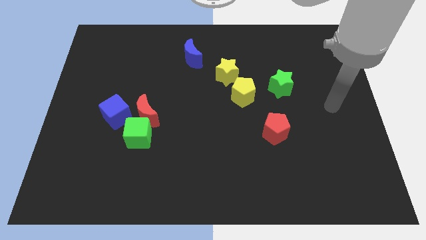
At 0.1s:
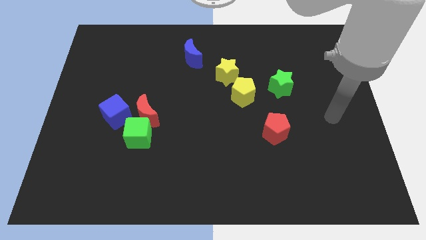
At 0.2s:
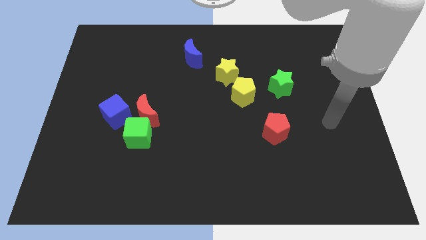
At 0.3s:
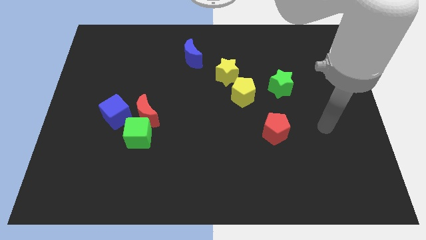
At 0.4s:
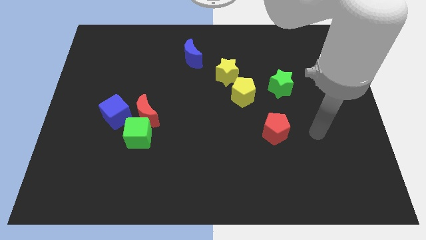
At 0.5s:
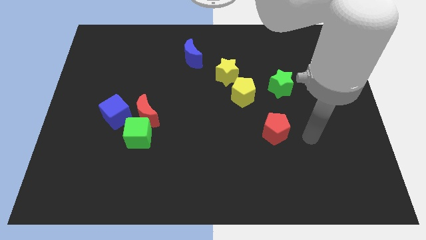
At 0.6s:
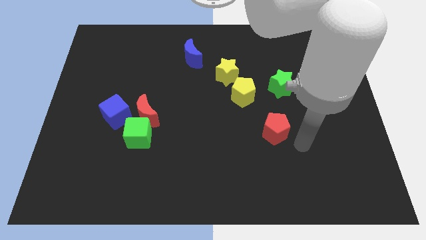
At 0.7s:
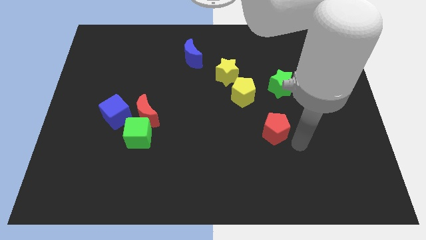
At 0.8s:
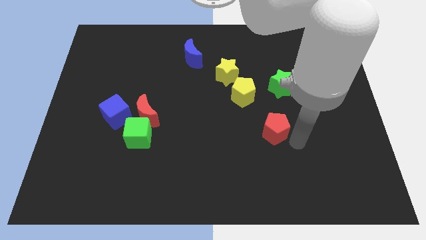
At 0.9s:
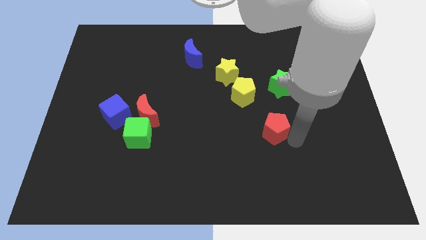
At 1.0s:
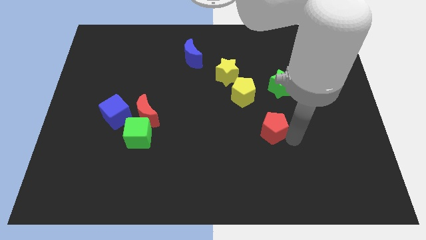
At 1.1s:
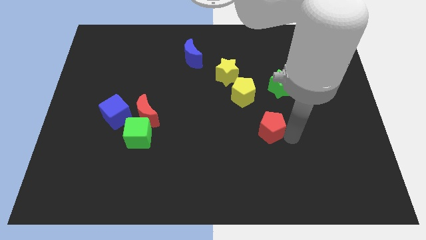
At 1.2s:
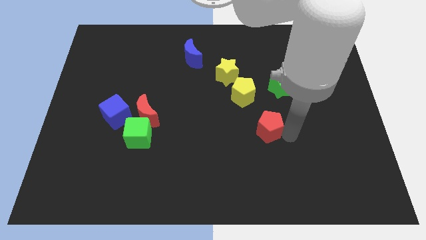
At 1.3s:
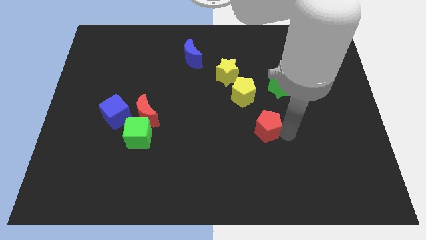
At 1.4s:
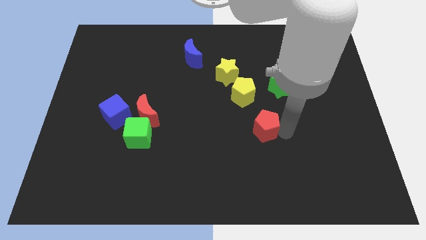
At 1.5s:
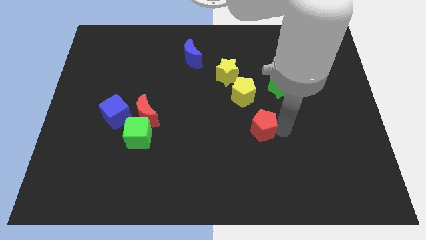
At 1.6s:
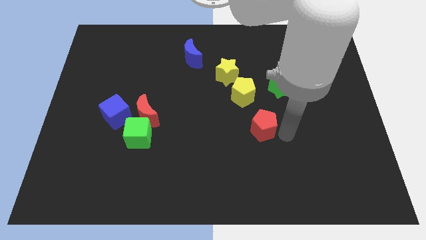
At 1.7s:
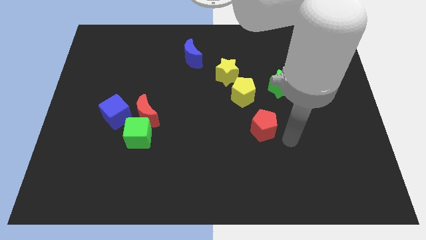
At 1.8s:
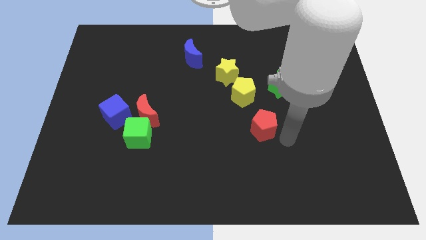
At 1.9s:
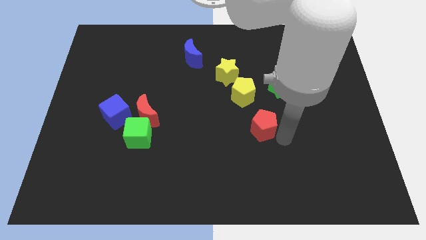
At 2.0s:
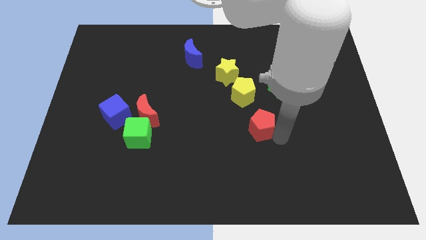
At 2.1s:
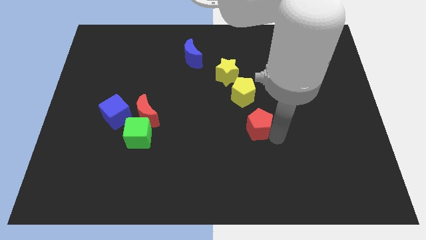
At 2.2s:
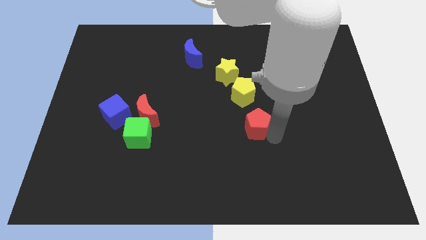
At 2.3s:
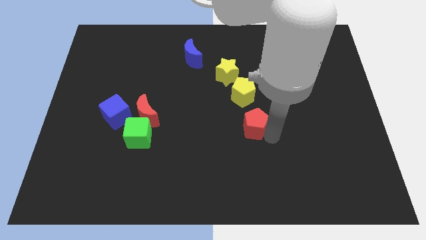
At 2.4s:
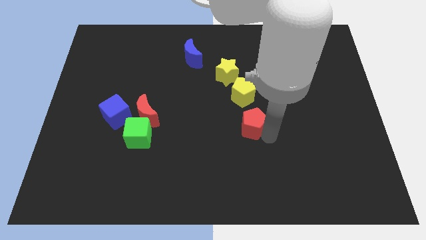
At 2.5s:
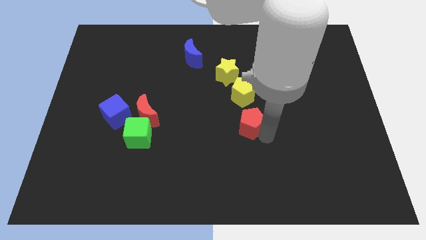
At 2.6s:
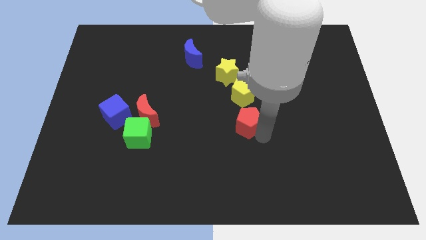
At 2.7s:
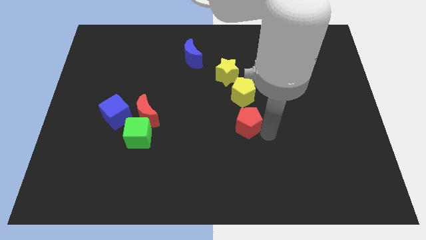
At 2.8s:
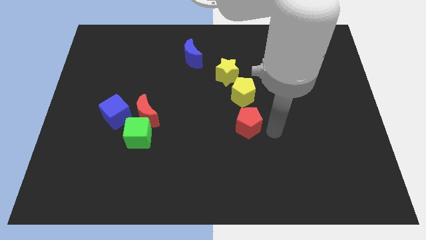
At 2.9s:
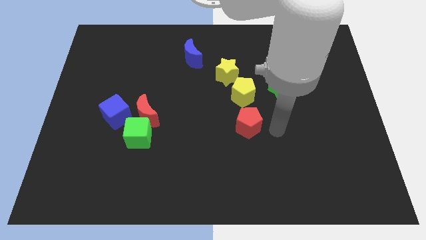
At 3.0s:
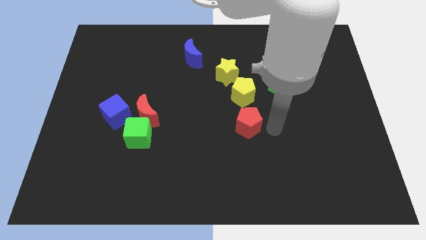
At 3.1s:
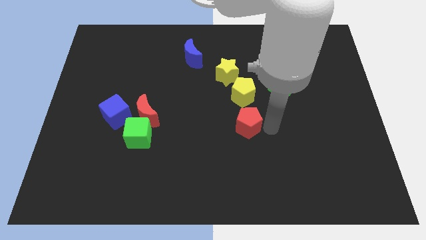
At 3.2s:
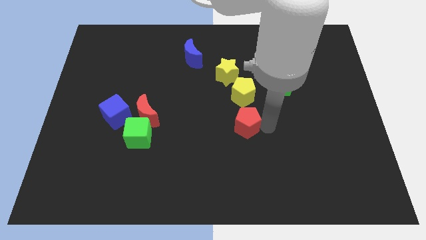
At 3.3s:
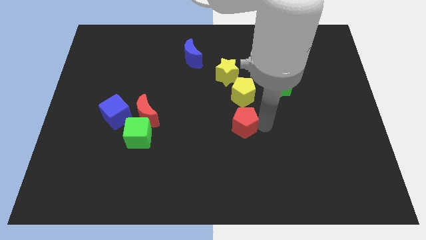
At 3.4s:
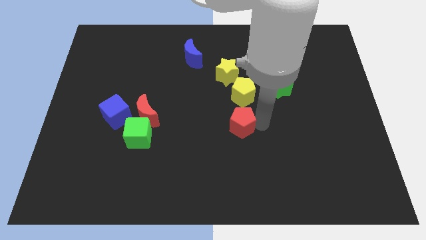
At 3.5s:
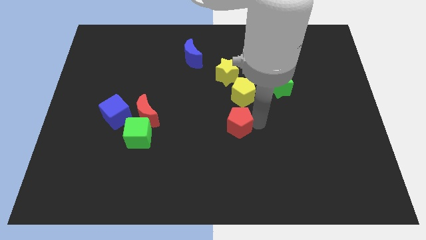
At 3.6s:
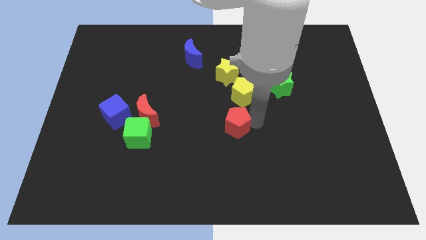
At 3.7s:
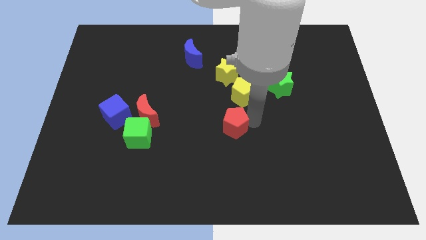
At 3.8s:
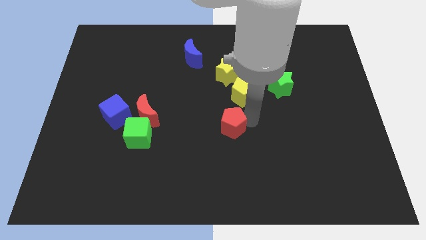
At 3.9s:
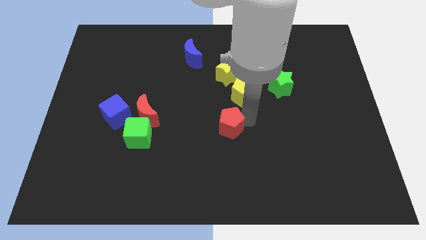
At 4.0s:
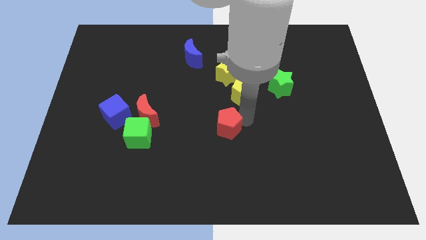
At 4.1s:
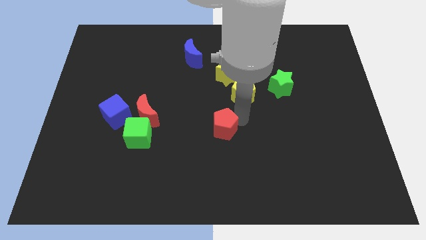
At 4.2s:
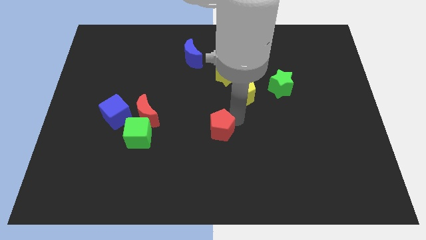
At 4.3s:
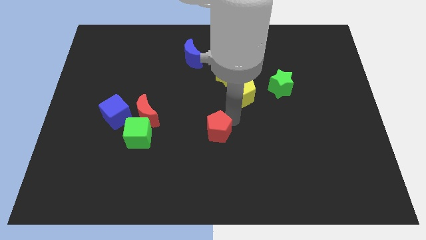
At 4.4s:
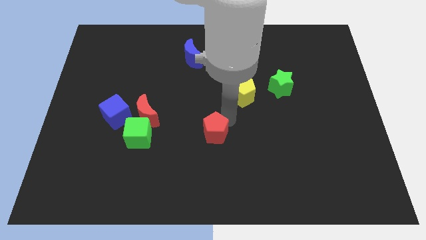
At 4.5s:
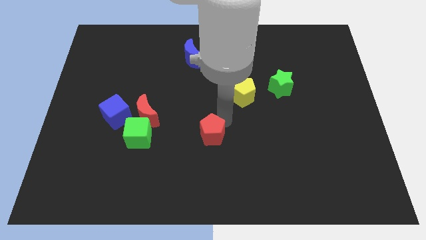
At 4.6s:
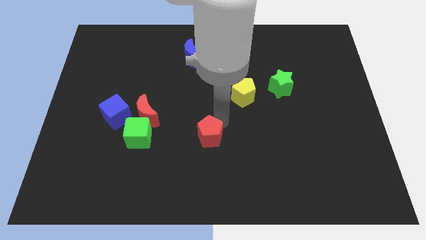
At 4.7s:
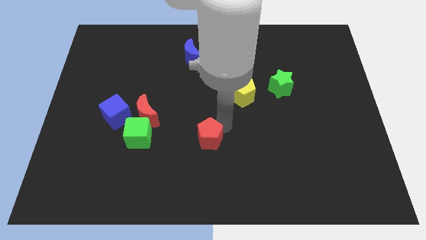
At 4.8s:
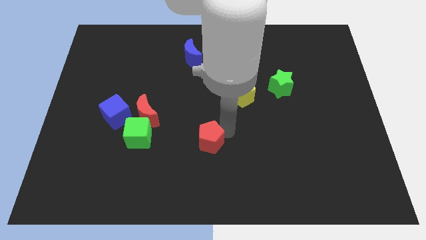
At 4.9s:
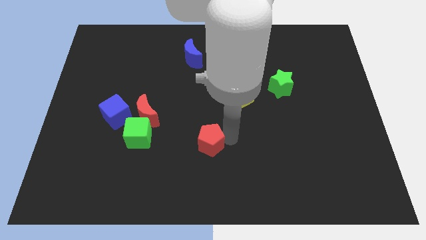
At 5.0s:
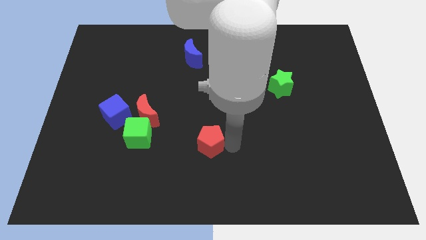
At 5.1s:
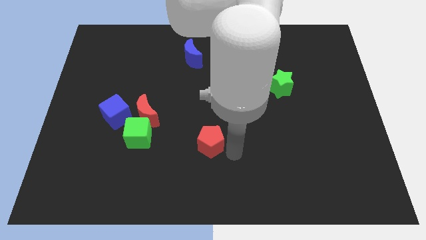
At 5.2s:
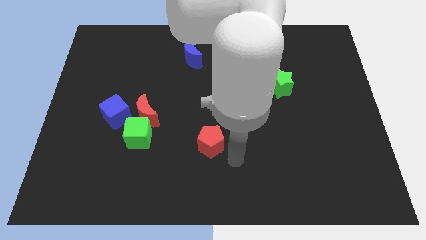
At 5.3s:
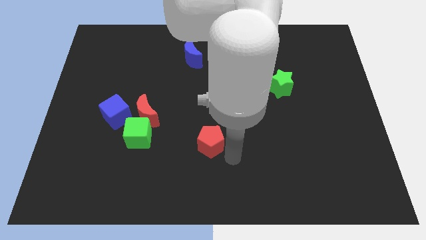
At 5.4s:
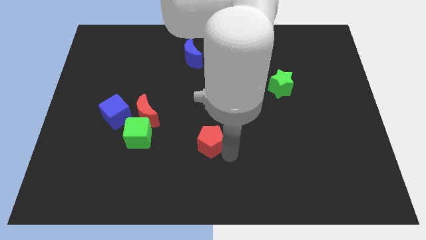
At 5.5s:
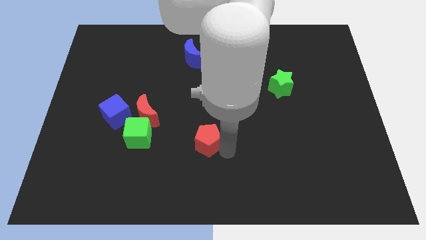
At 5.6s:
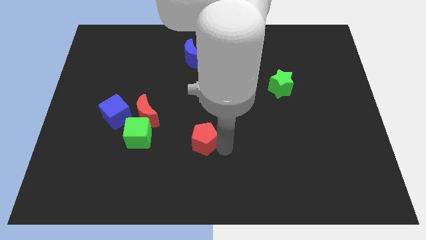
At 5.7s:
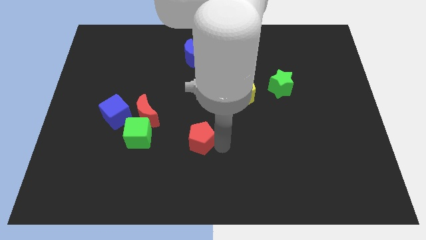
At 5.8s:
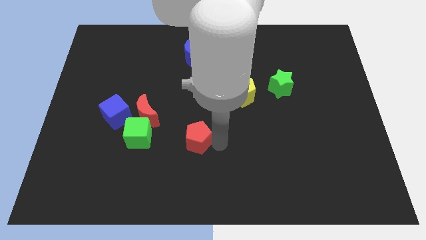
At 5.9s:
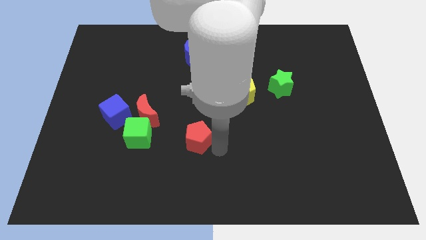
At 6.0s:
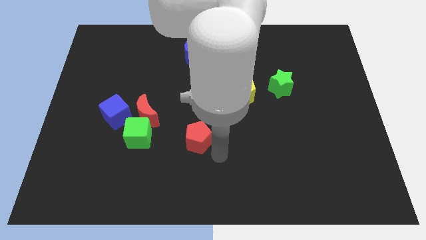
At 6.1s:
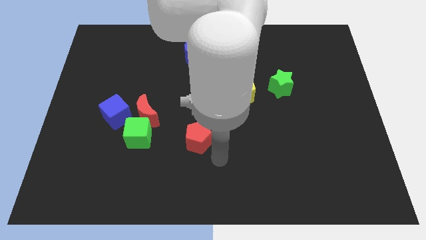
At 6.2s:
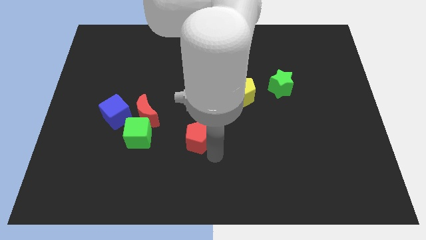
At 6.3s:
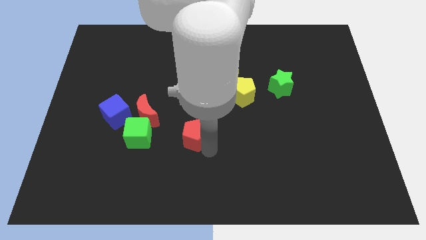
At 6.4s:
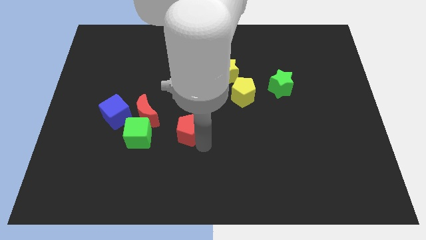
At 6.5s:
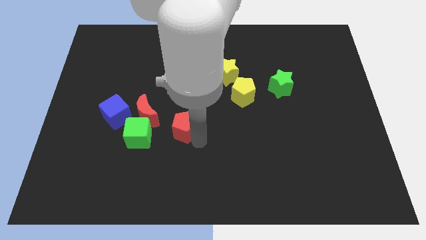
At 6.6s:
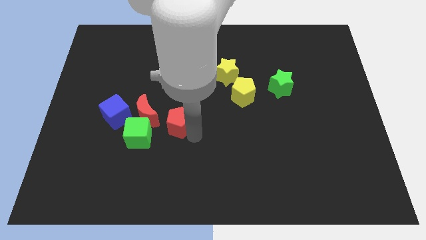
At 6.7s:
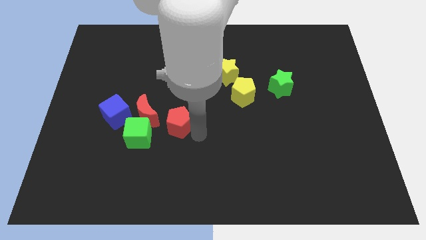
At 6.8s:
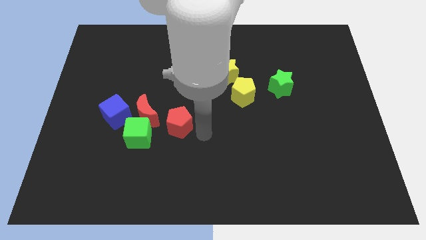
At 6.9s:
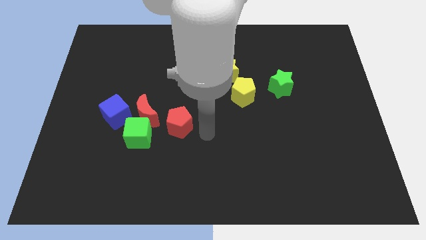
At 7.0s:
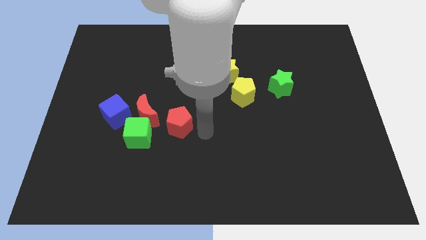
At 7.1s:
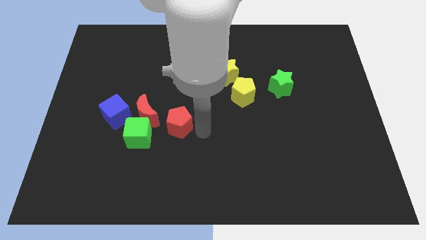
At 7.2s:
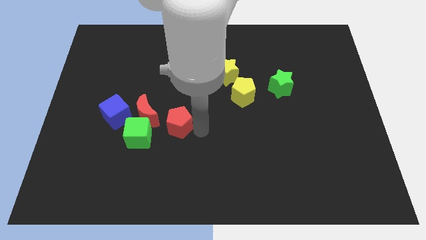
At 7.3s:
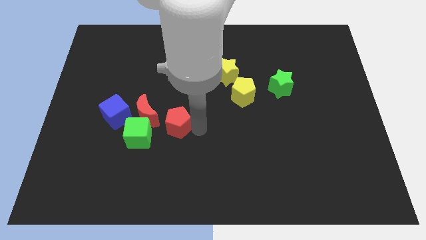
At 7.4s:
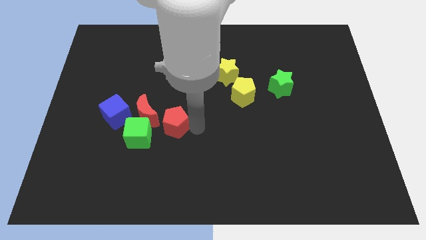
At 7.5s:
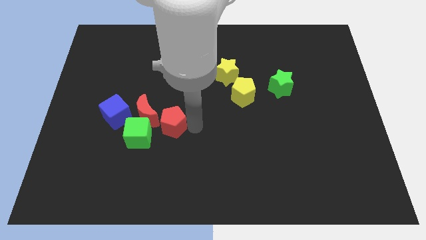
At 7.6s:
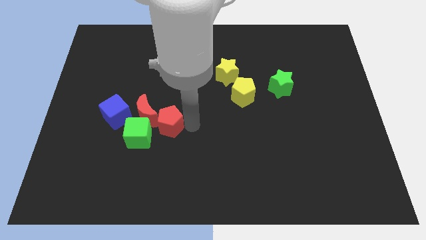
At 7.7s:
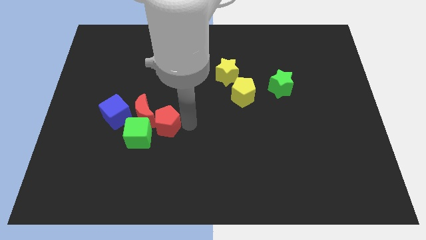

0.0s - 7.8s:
move the red pentagon close to the red moon
